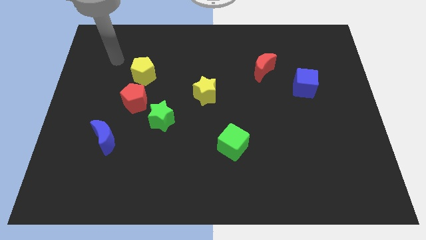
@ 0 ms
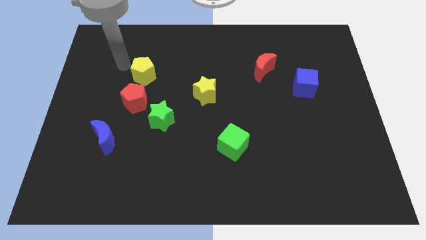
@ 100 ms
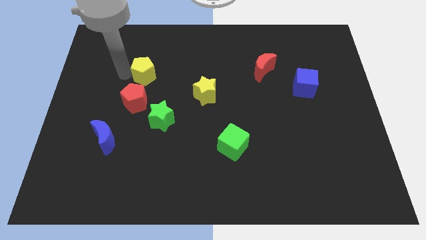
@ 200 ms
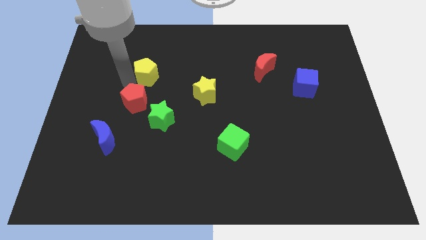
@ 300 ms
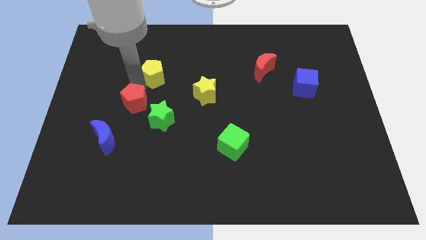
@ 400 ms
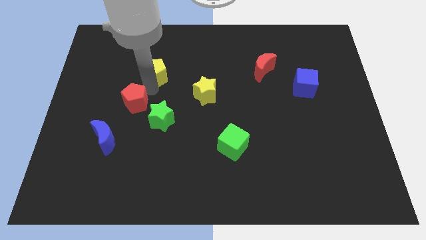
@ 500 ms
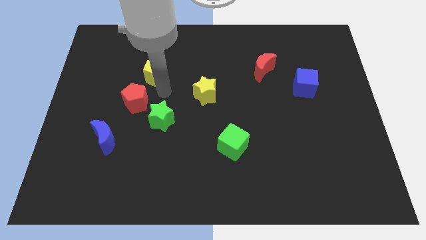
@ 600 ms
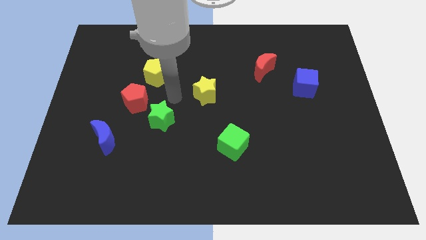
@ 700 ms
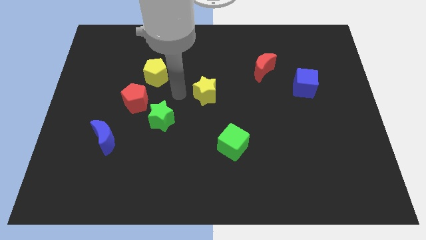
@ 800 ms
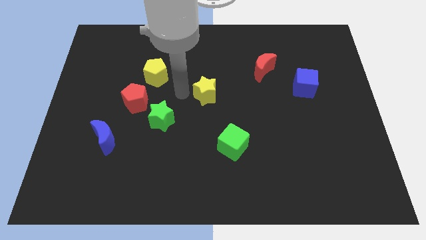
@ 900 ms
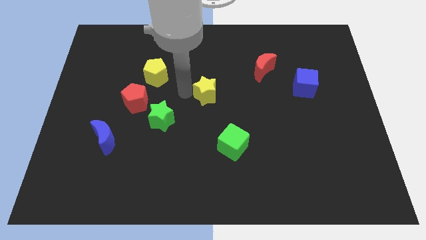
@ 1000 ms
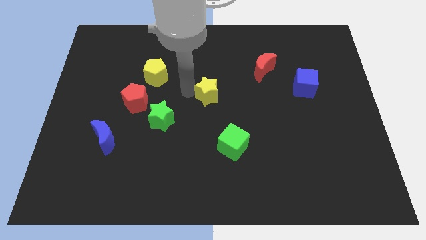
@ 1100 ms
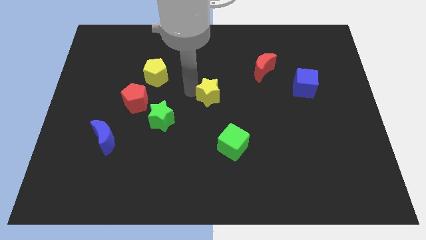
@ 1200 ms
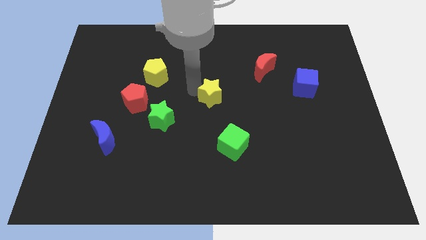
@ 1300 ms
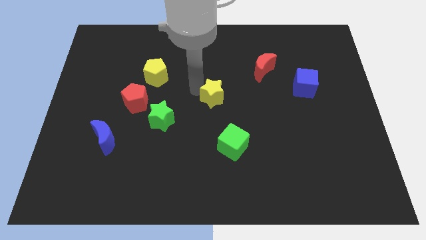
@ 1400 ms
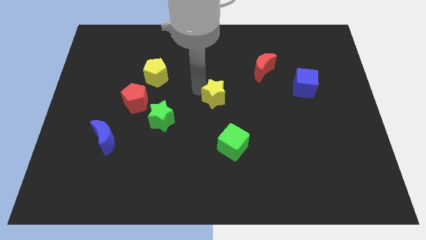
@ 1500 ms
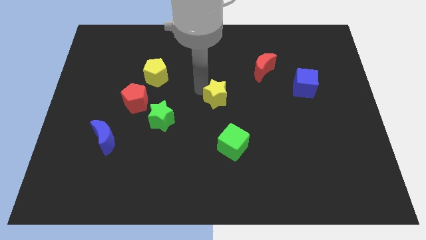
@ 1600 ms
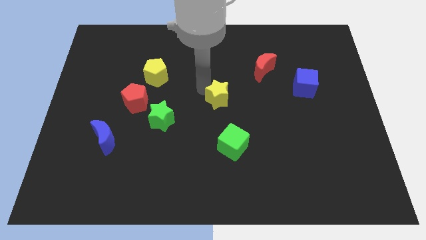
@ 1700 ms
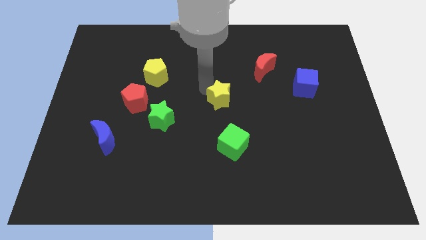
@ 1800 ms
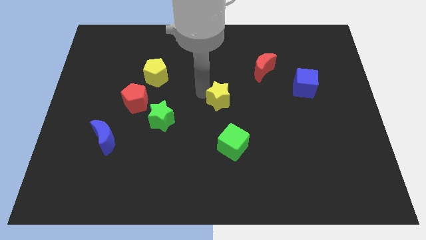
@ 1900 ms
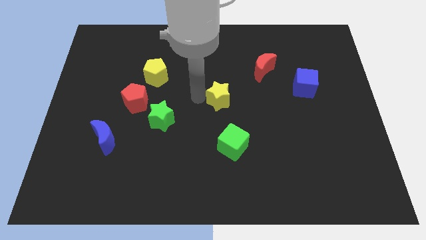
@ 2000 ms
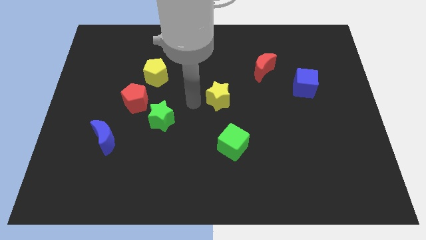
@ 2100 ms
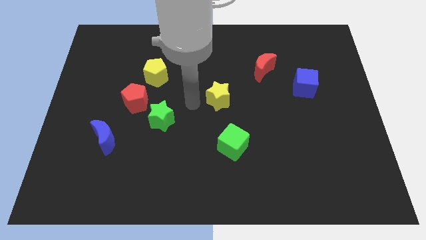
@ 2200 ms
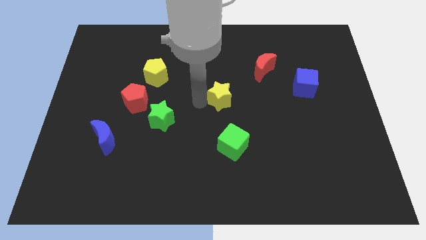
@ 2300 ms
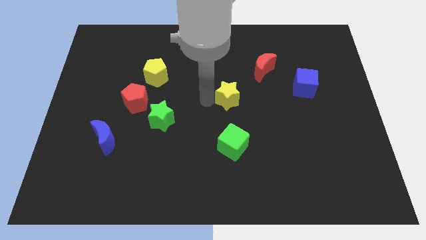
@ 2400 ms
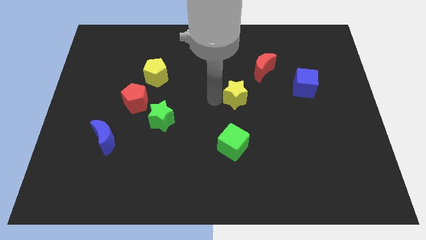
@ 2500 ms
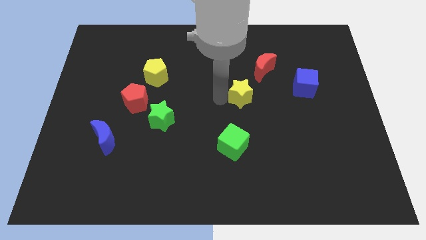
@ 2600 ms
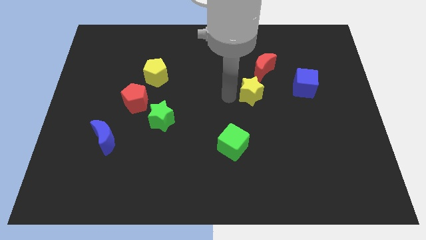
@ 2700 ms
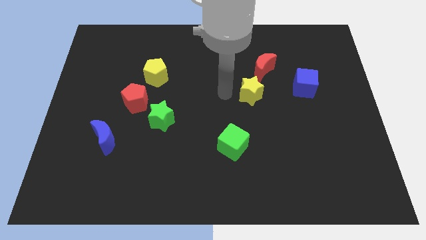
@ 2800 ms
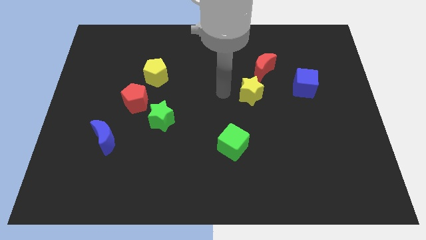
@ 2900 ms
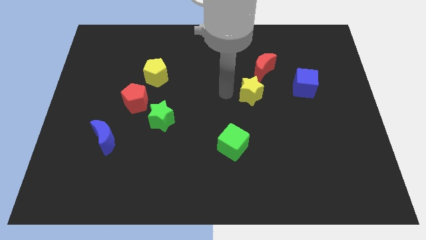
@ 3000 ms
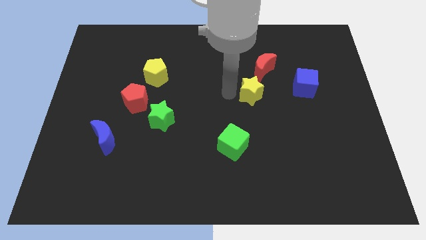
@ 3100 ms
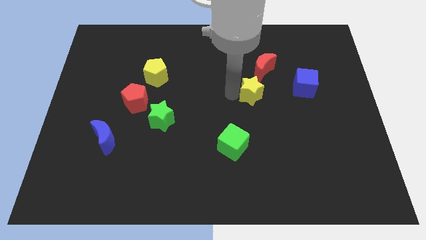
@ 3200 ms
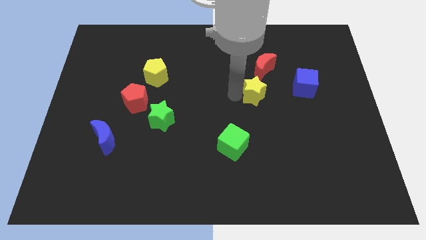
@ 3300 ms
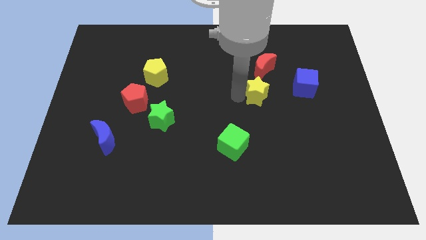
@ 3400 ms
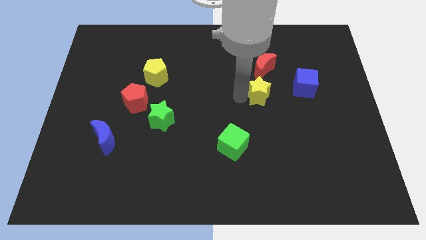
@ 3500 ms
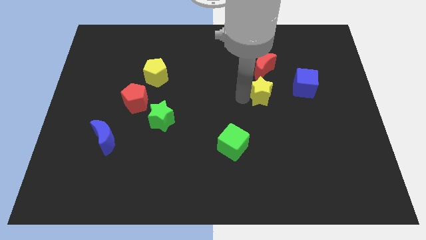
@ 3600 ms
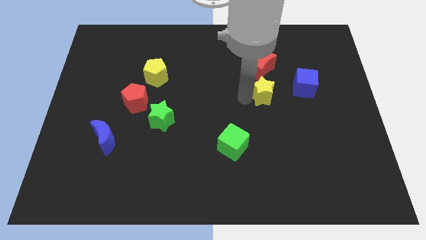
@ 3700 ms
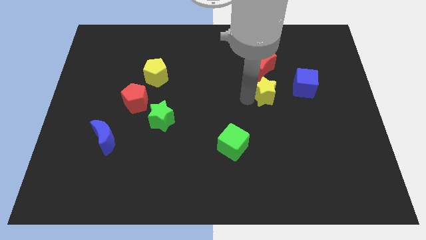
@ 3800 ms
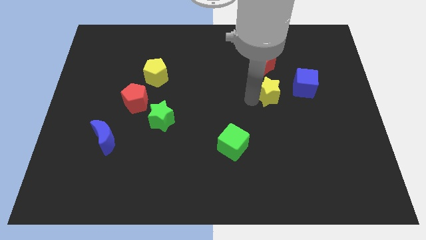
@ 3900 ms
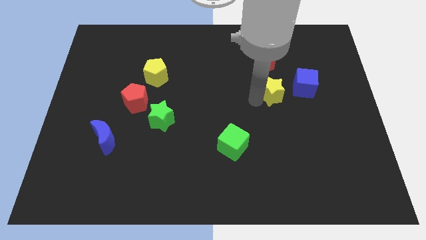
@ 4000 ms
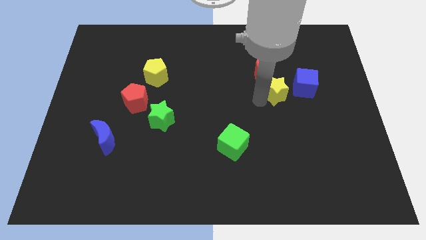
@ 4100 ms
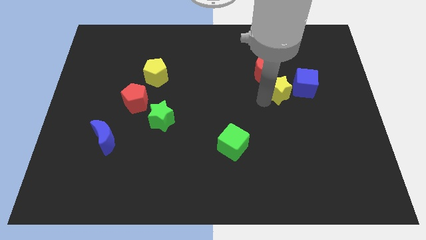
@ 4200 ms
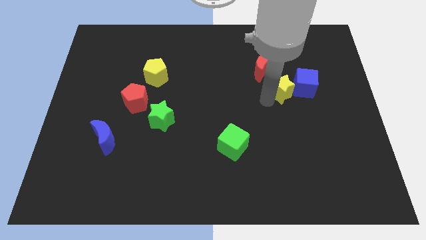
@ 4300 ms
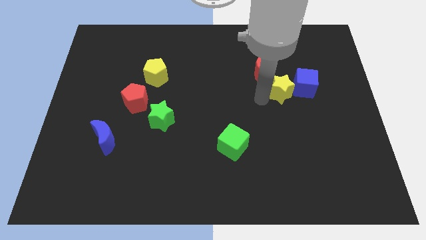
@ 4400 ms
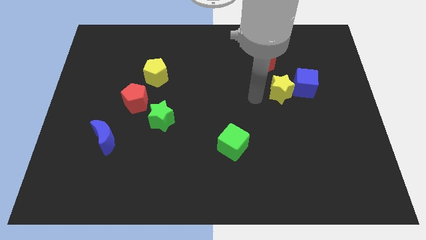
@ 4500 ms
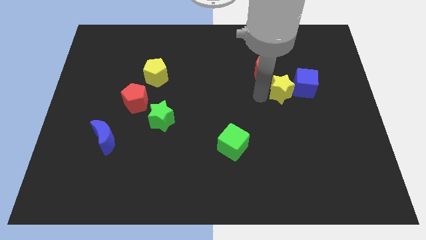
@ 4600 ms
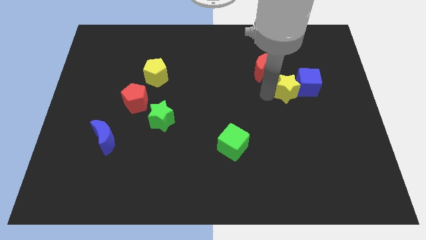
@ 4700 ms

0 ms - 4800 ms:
push the yellow star towards the blue cube

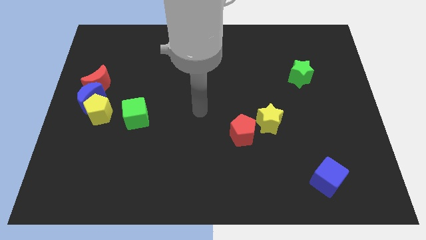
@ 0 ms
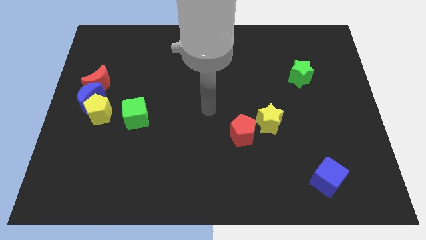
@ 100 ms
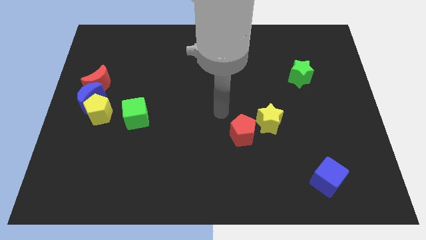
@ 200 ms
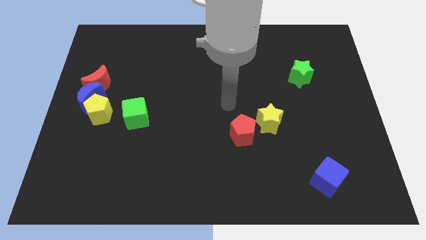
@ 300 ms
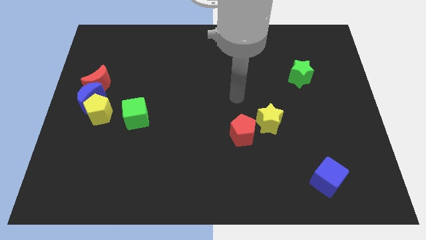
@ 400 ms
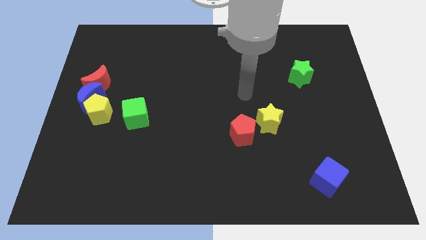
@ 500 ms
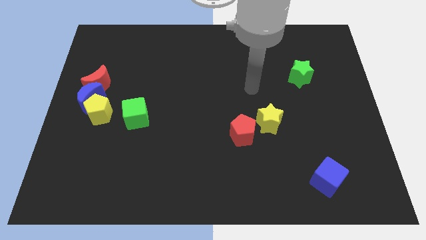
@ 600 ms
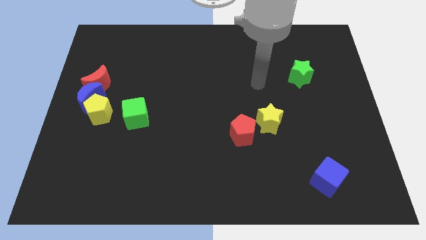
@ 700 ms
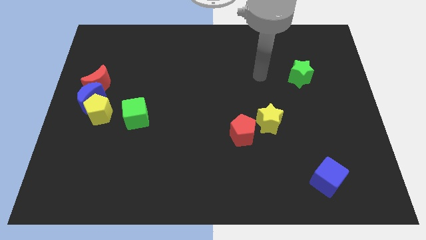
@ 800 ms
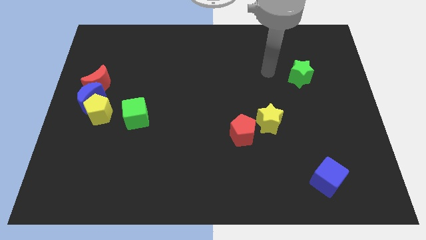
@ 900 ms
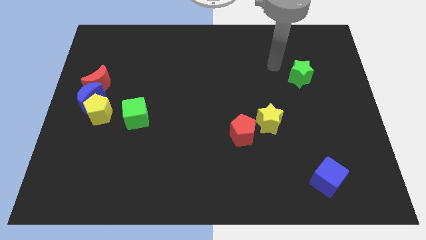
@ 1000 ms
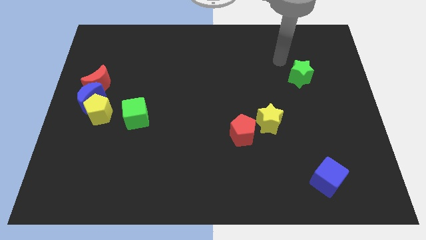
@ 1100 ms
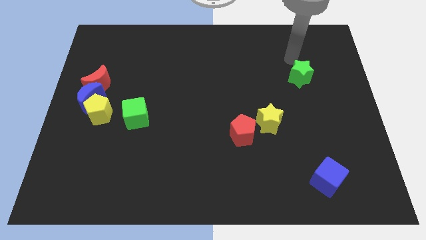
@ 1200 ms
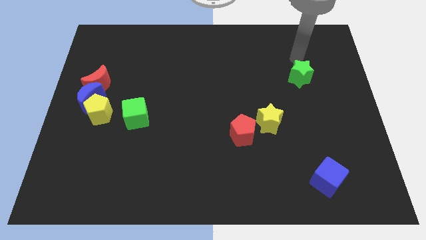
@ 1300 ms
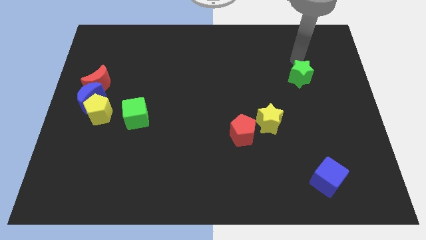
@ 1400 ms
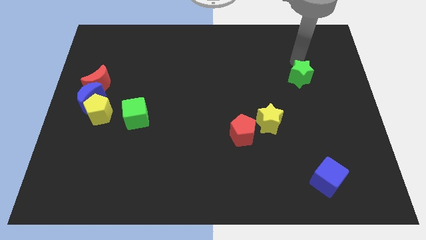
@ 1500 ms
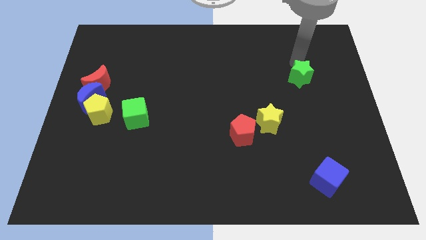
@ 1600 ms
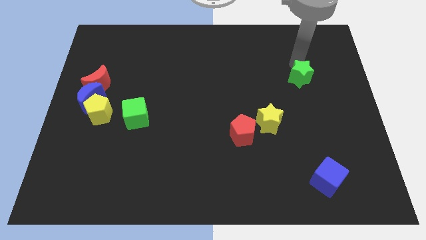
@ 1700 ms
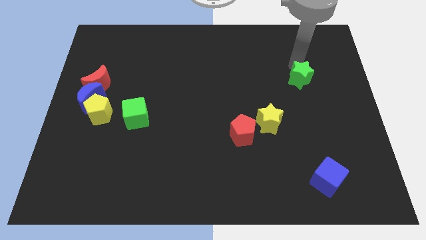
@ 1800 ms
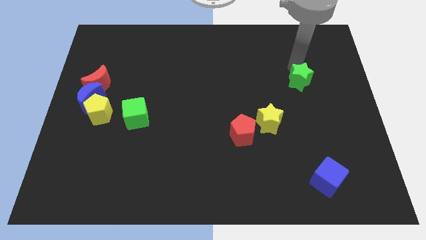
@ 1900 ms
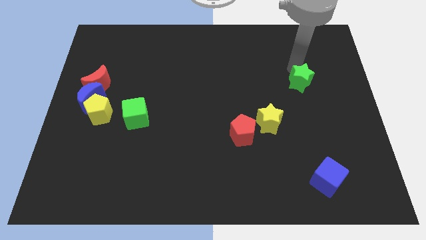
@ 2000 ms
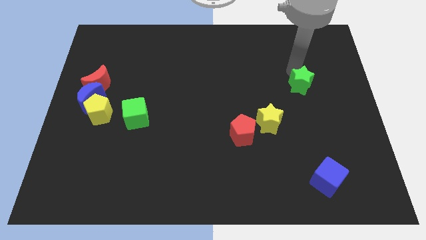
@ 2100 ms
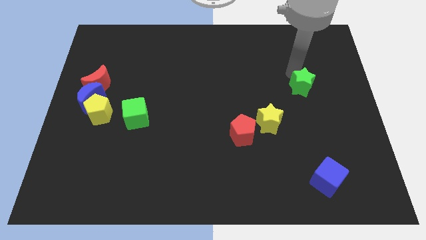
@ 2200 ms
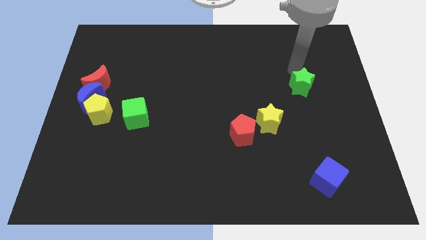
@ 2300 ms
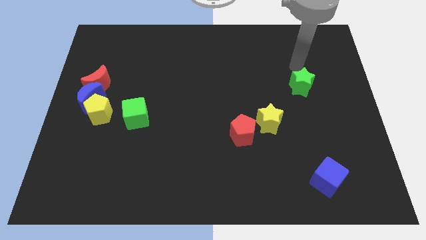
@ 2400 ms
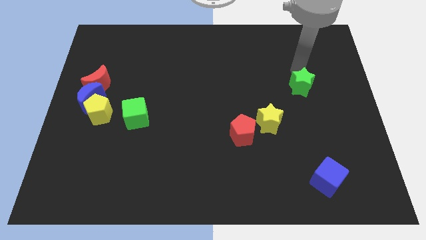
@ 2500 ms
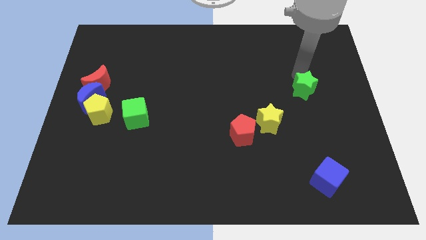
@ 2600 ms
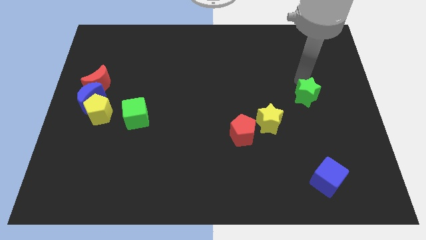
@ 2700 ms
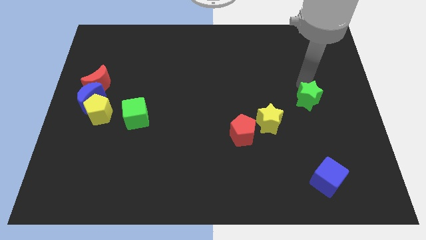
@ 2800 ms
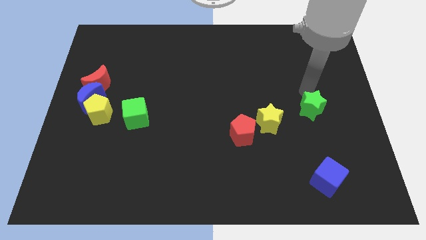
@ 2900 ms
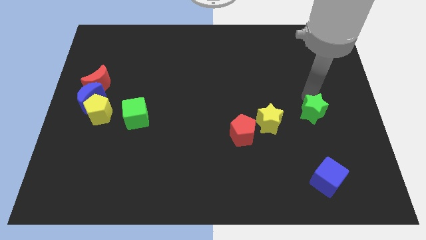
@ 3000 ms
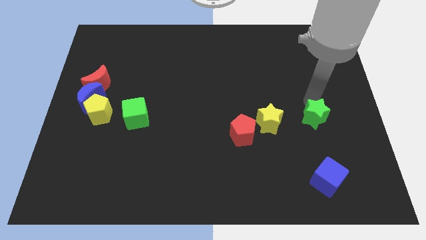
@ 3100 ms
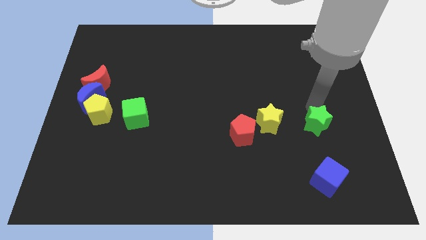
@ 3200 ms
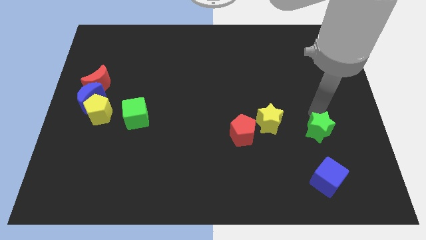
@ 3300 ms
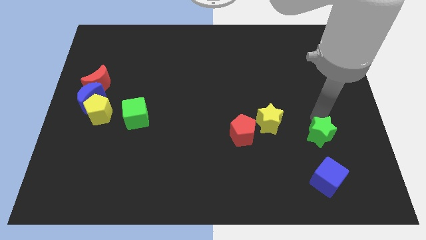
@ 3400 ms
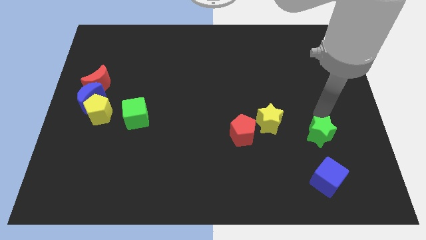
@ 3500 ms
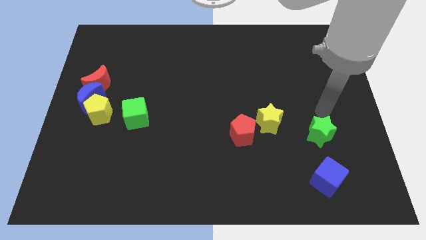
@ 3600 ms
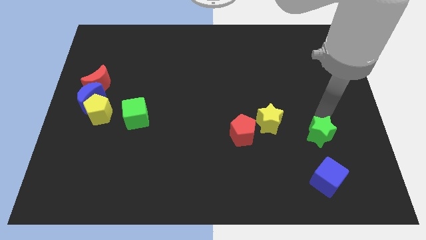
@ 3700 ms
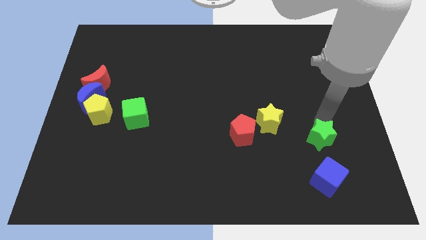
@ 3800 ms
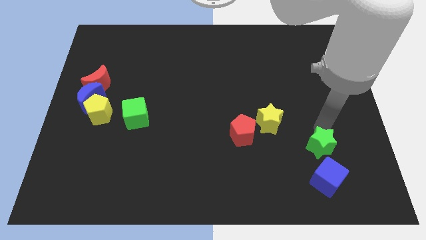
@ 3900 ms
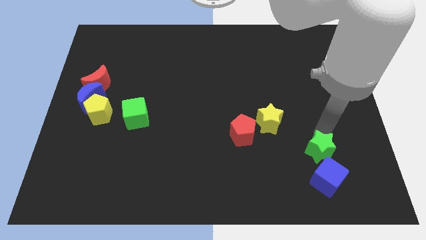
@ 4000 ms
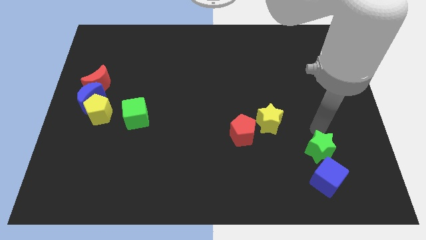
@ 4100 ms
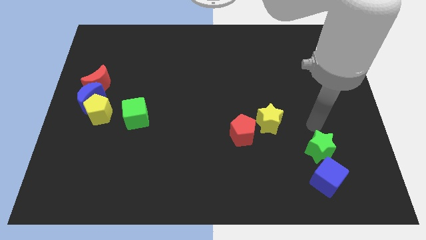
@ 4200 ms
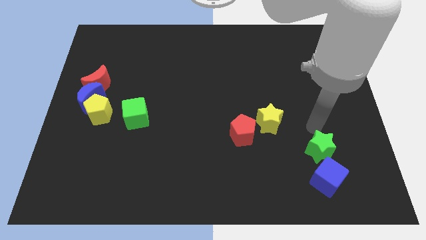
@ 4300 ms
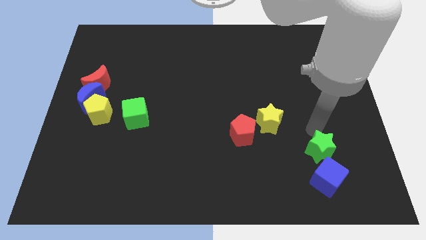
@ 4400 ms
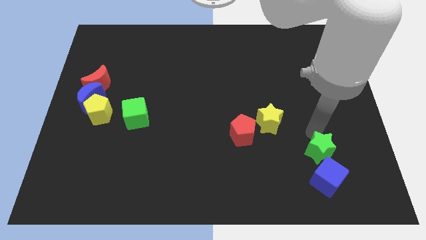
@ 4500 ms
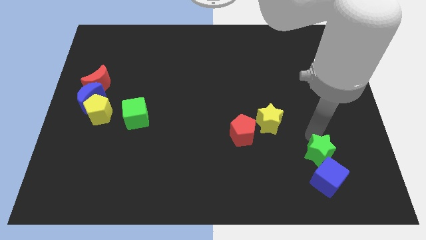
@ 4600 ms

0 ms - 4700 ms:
put the green star close to the blue cube
